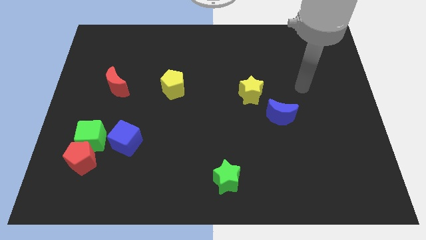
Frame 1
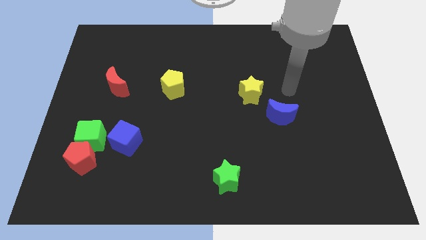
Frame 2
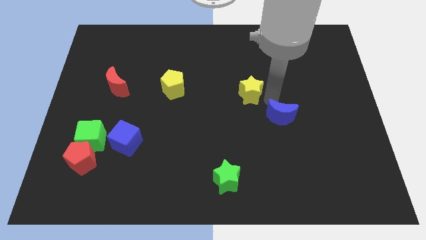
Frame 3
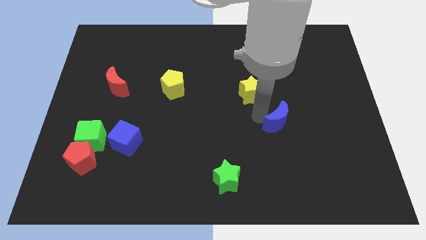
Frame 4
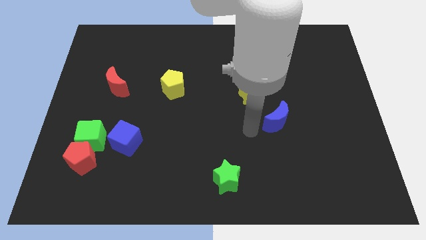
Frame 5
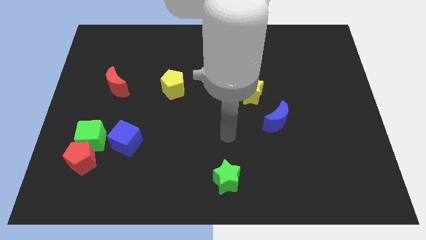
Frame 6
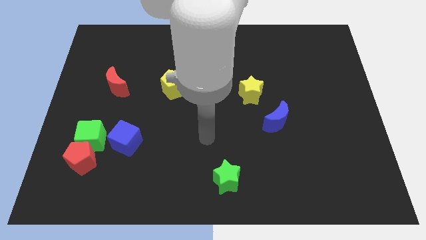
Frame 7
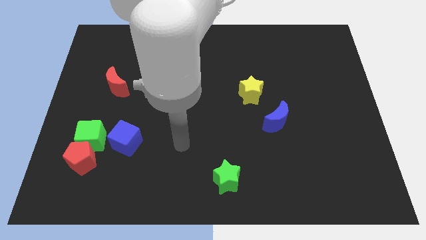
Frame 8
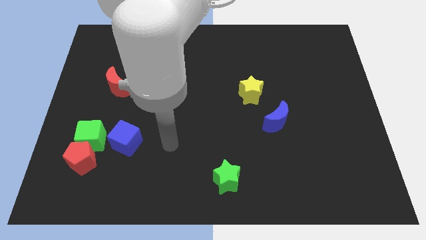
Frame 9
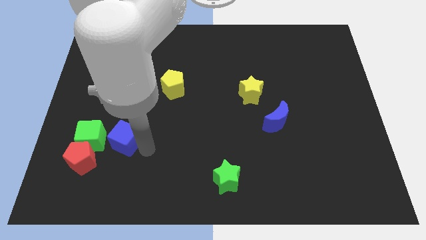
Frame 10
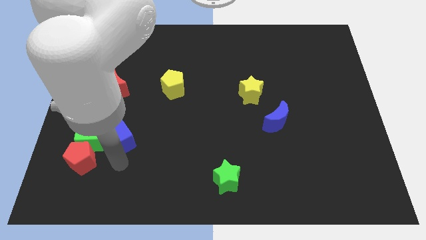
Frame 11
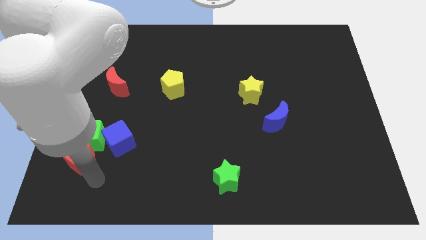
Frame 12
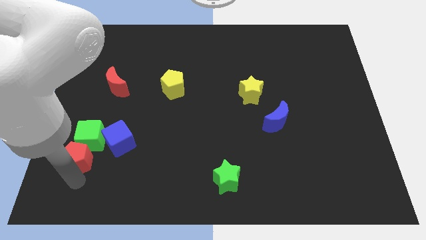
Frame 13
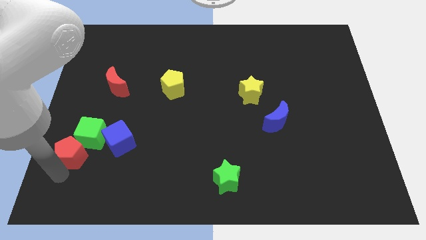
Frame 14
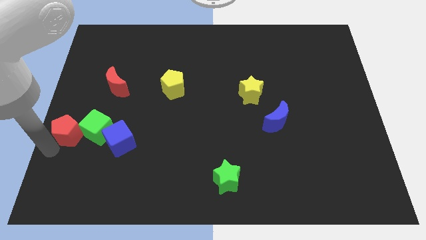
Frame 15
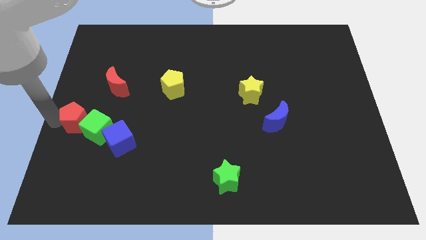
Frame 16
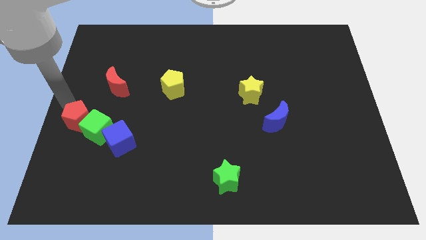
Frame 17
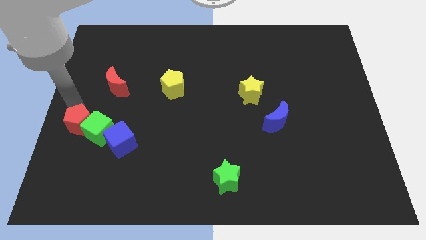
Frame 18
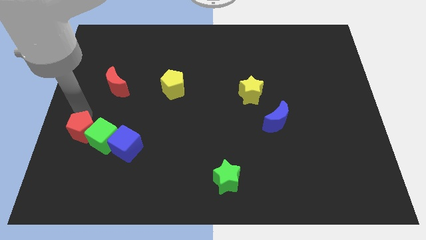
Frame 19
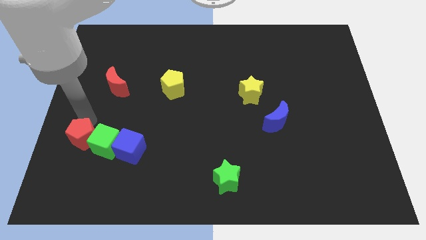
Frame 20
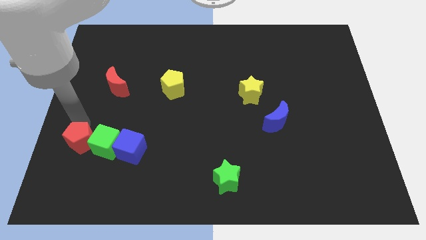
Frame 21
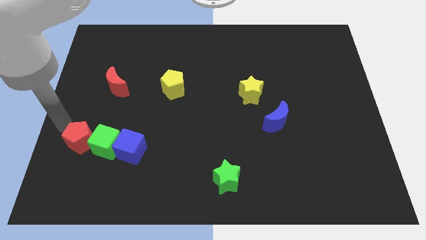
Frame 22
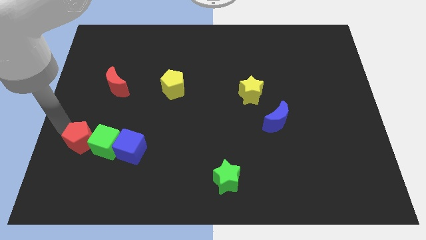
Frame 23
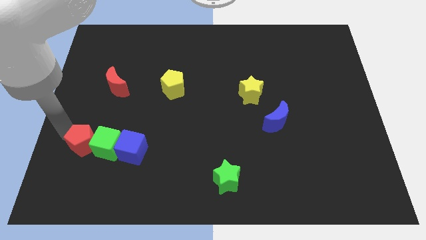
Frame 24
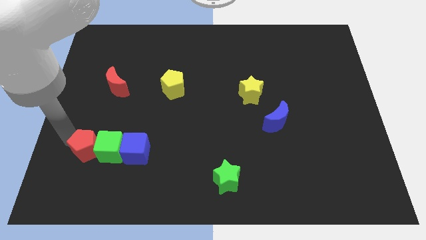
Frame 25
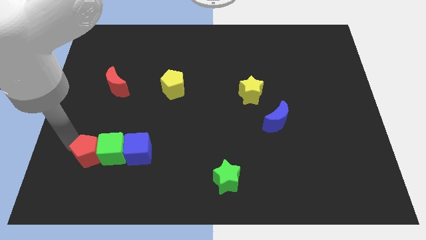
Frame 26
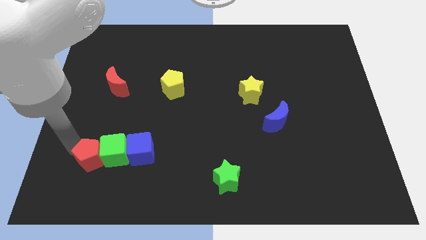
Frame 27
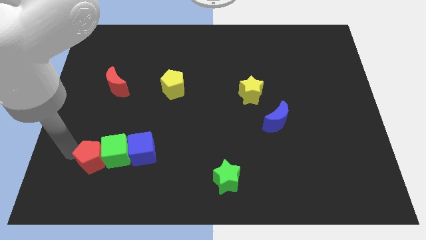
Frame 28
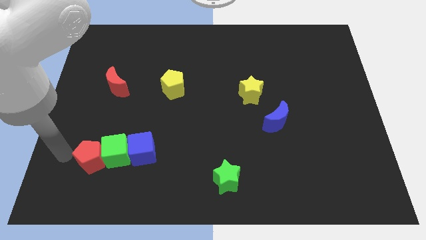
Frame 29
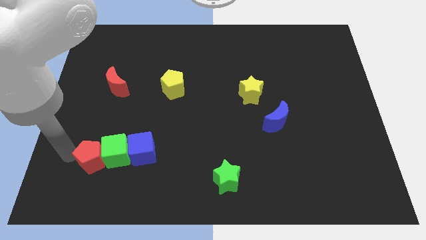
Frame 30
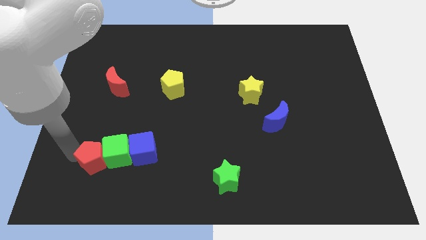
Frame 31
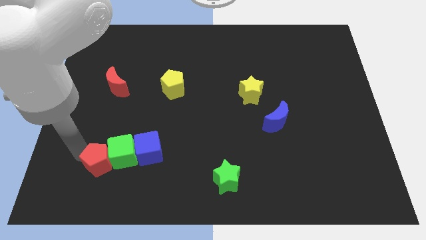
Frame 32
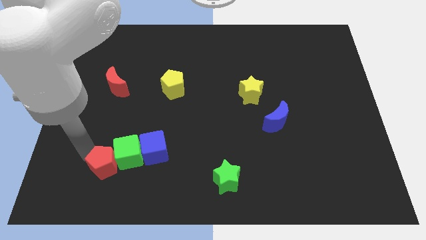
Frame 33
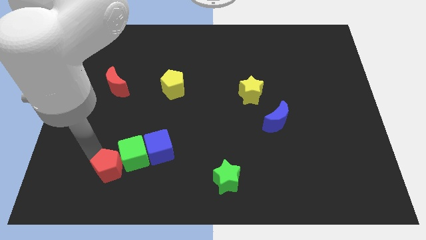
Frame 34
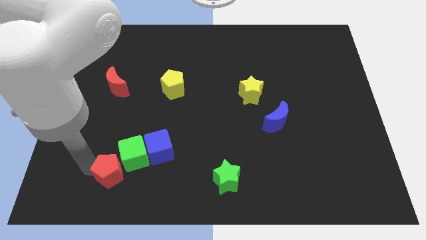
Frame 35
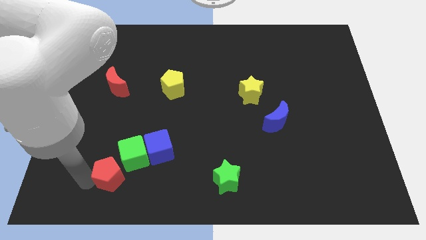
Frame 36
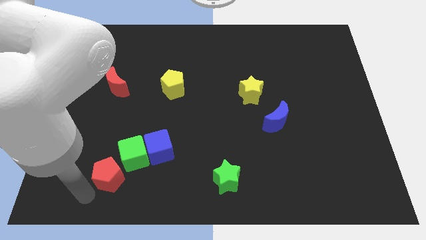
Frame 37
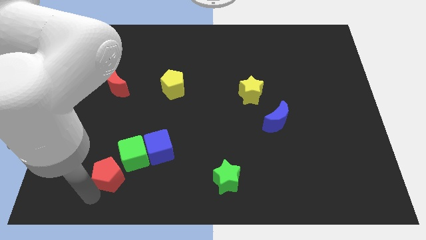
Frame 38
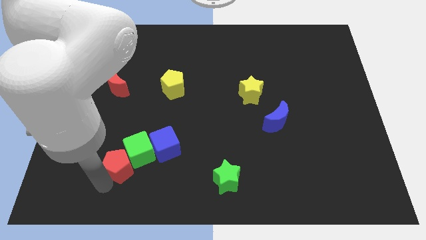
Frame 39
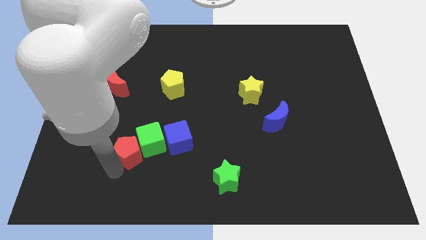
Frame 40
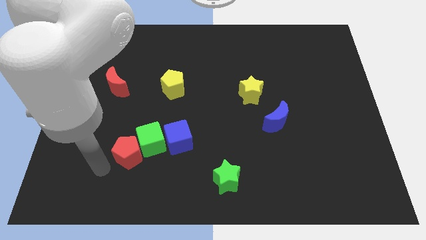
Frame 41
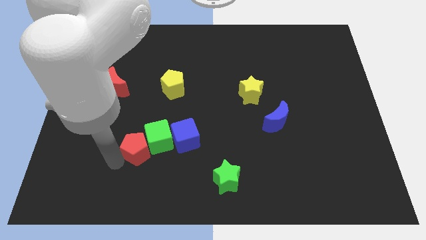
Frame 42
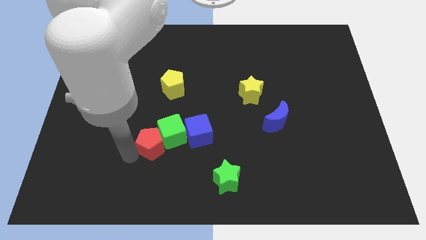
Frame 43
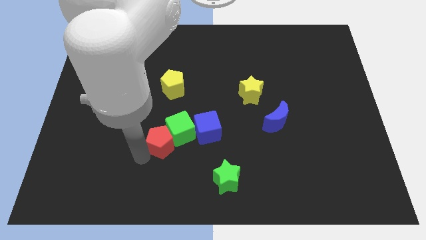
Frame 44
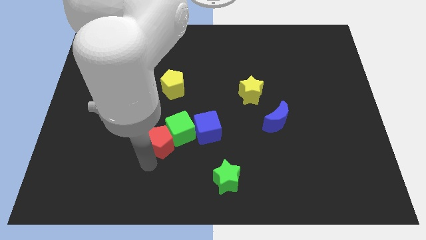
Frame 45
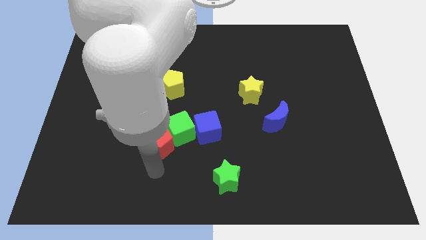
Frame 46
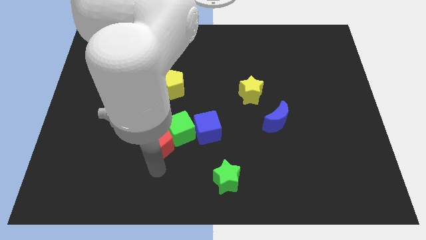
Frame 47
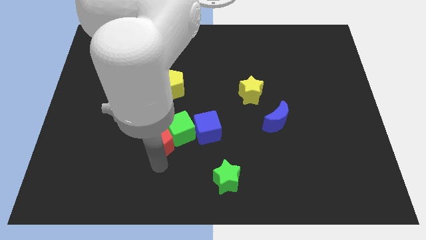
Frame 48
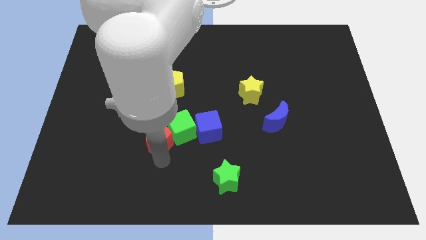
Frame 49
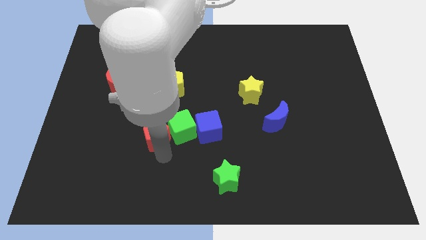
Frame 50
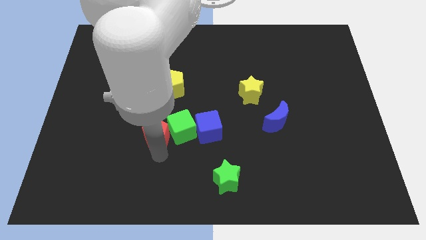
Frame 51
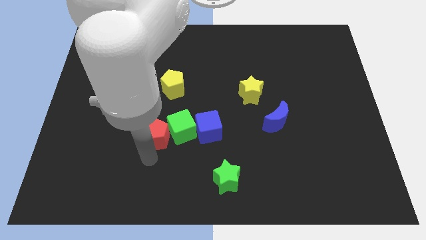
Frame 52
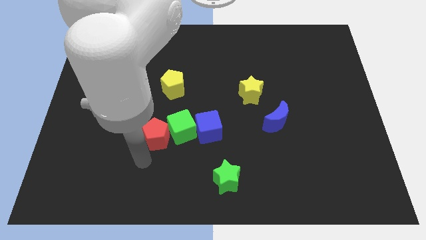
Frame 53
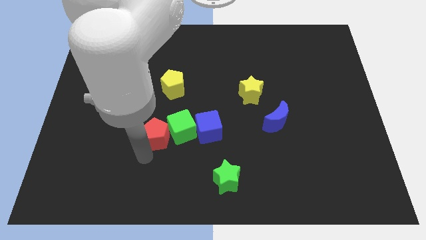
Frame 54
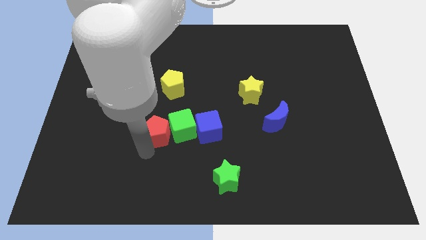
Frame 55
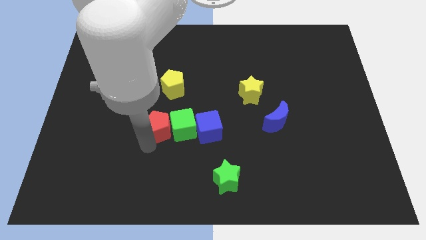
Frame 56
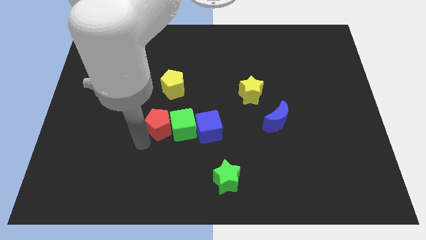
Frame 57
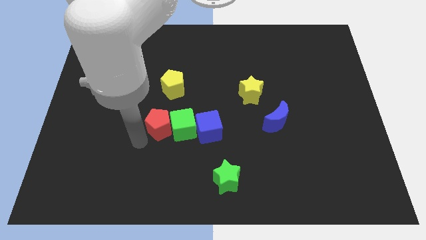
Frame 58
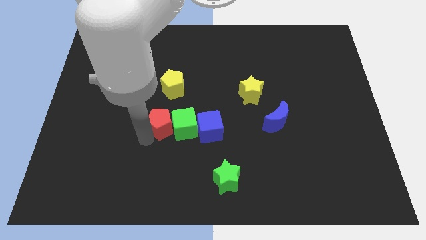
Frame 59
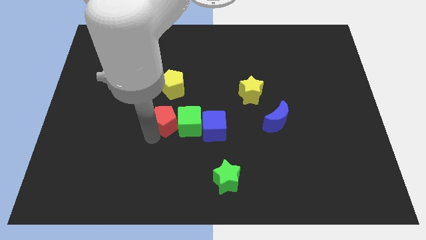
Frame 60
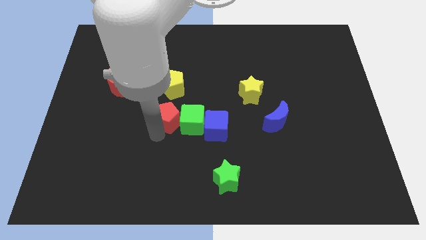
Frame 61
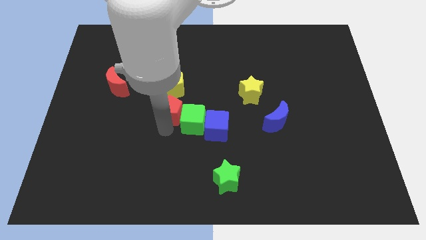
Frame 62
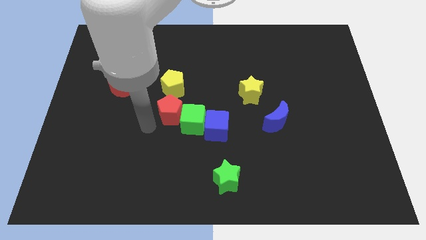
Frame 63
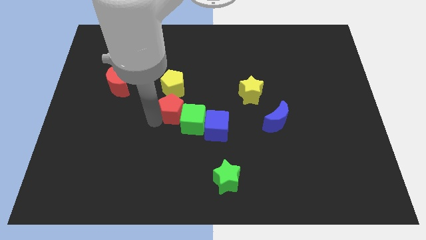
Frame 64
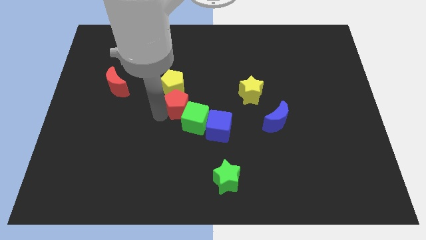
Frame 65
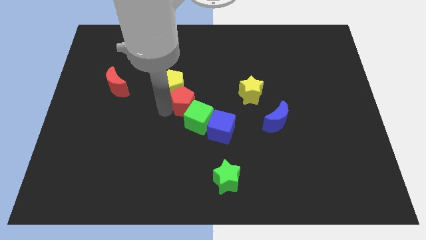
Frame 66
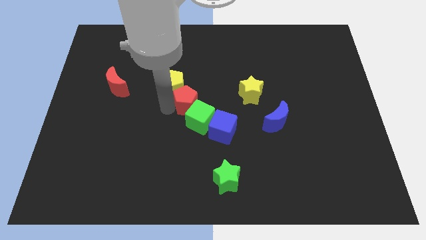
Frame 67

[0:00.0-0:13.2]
put the red pentagon to the left side of the yellow star
